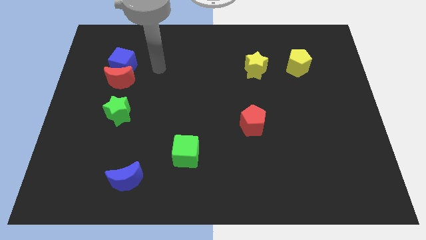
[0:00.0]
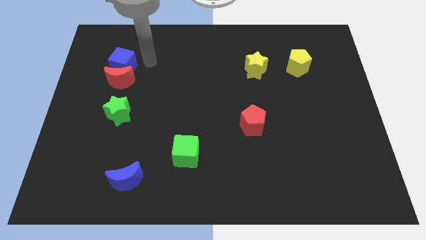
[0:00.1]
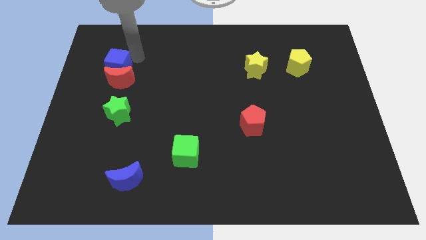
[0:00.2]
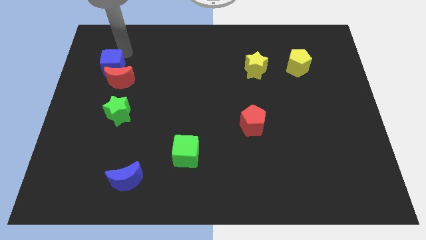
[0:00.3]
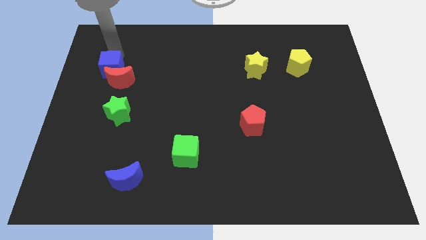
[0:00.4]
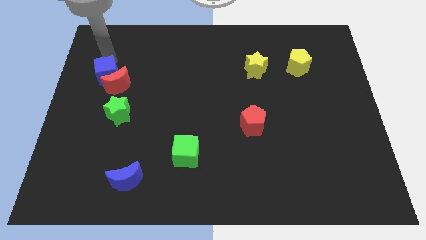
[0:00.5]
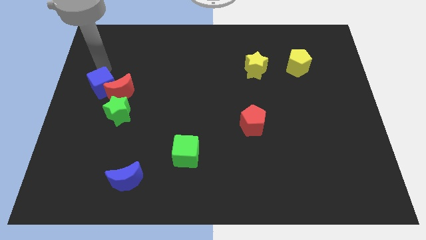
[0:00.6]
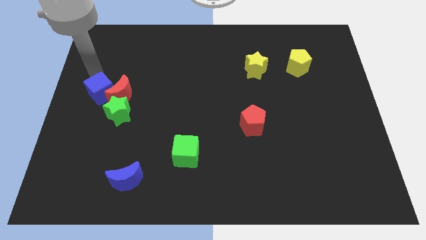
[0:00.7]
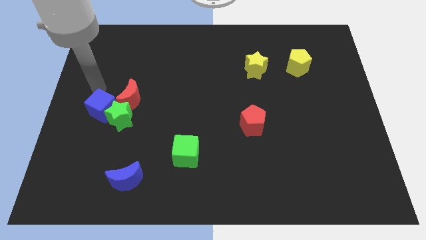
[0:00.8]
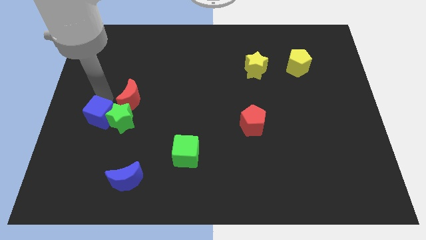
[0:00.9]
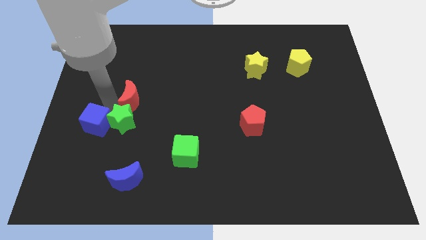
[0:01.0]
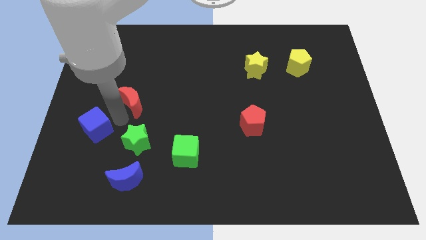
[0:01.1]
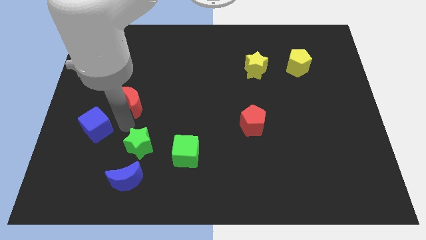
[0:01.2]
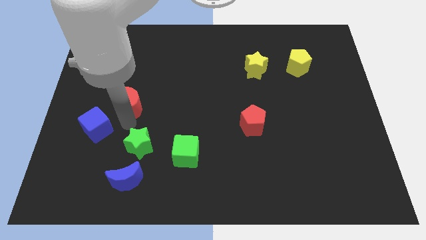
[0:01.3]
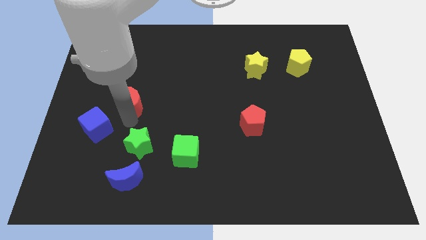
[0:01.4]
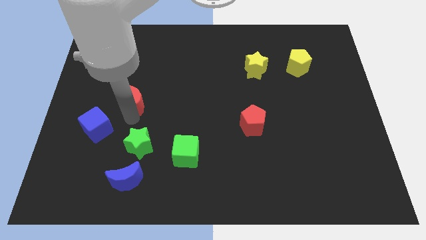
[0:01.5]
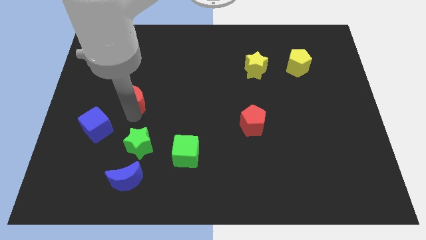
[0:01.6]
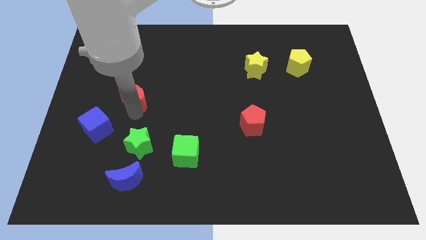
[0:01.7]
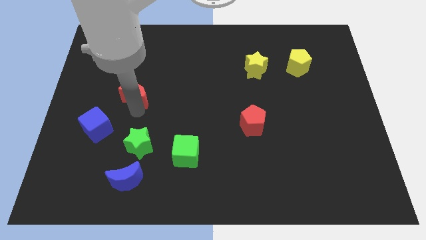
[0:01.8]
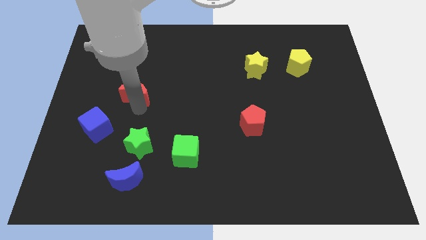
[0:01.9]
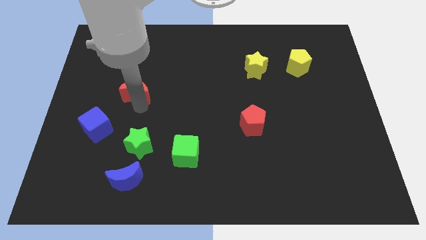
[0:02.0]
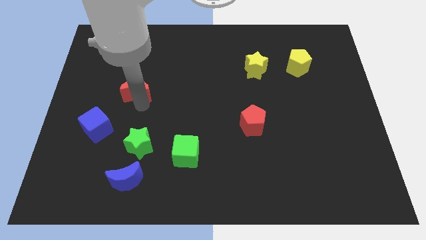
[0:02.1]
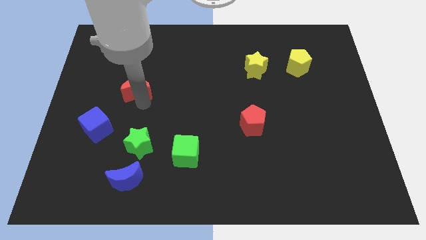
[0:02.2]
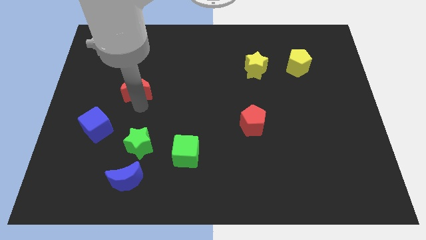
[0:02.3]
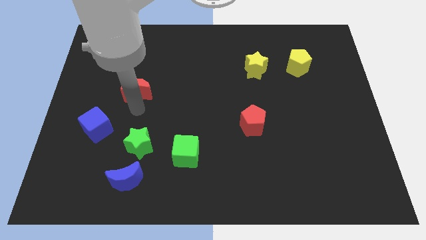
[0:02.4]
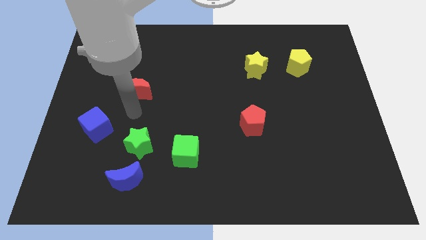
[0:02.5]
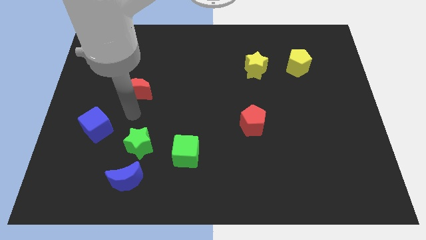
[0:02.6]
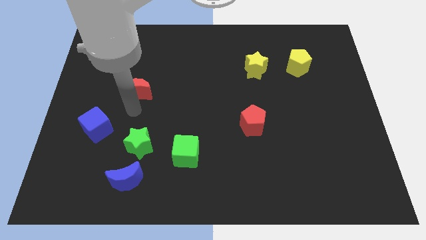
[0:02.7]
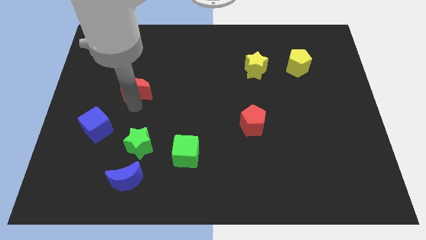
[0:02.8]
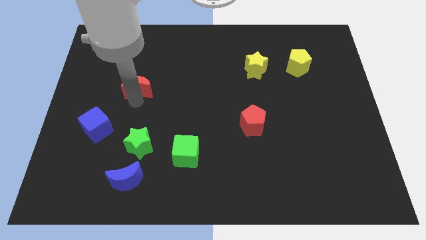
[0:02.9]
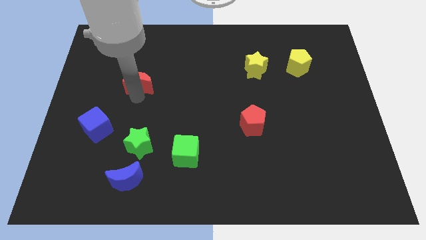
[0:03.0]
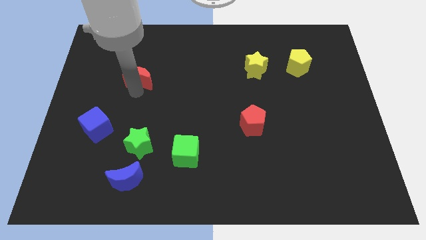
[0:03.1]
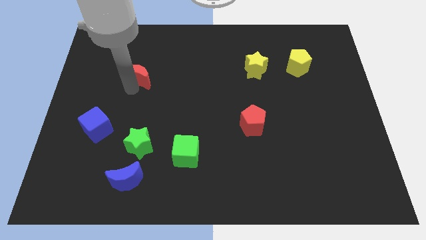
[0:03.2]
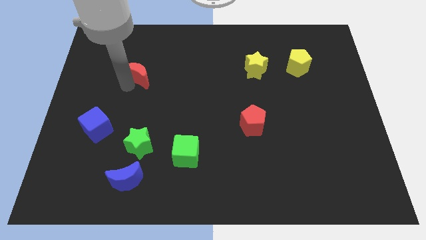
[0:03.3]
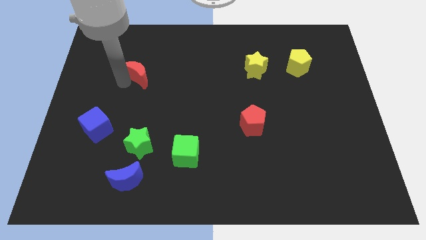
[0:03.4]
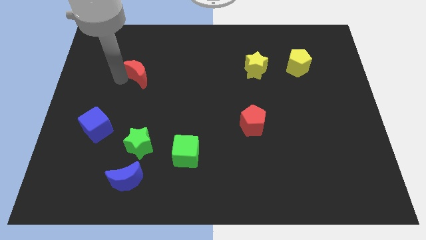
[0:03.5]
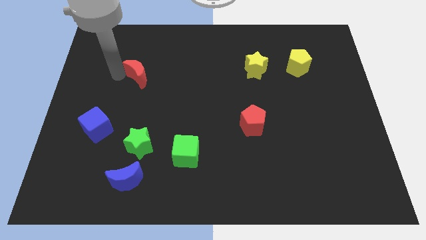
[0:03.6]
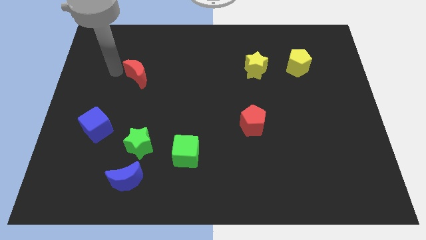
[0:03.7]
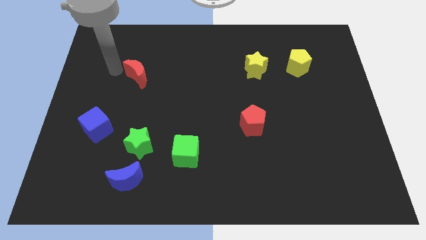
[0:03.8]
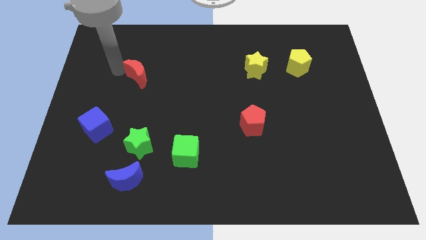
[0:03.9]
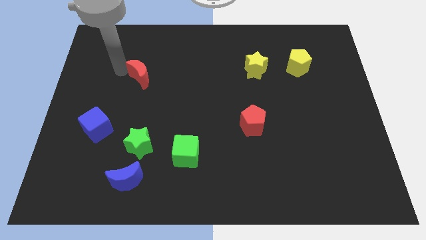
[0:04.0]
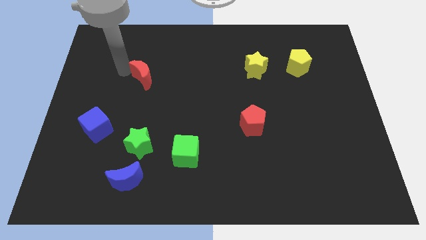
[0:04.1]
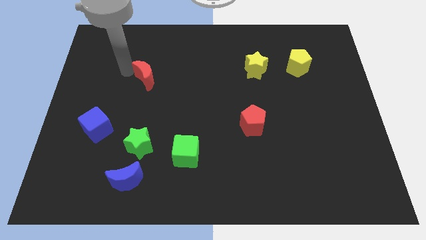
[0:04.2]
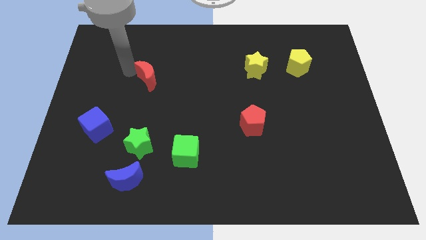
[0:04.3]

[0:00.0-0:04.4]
push the red moon to the right somewhat

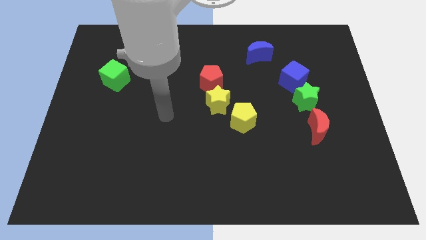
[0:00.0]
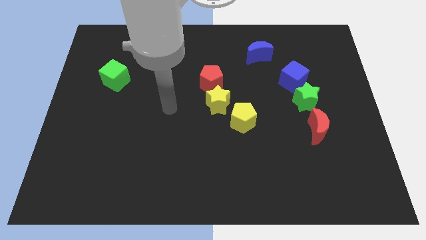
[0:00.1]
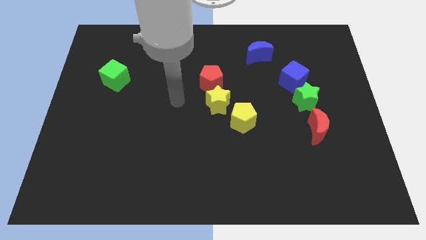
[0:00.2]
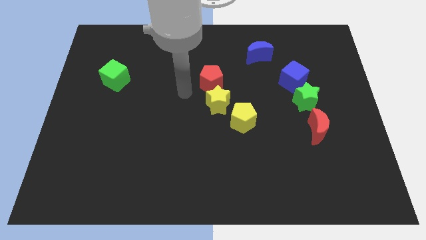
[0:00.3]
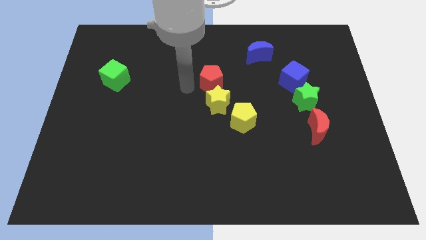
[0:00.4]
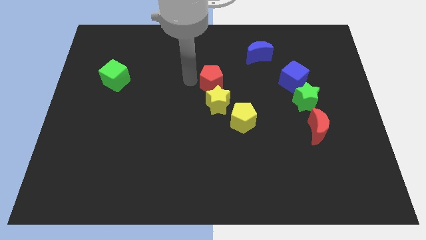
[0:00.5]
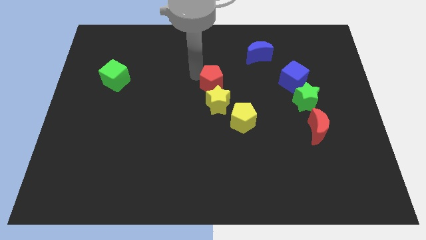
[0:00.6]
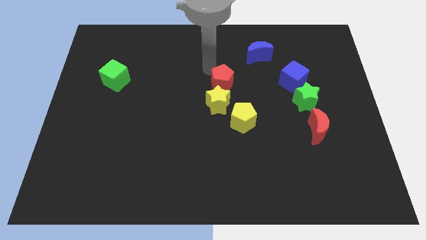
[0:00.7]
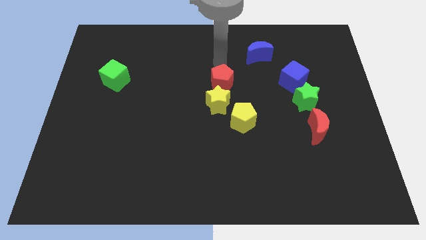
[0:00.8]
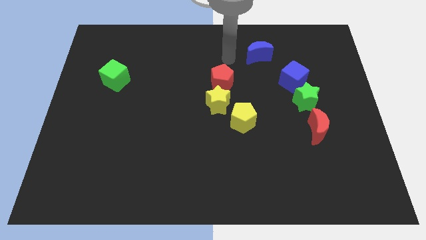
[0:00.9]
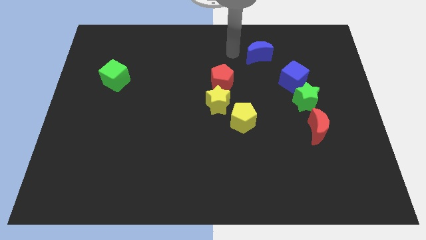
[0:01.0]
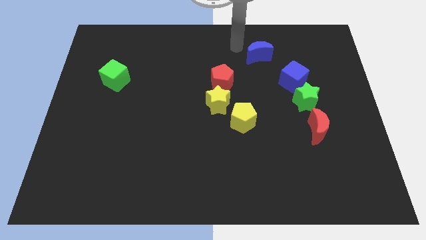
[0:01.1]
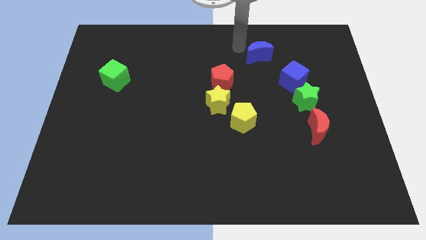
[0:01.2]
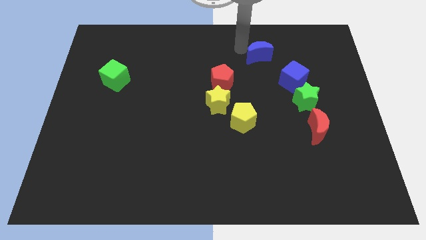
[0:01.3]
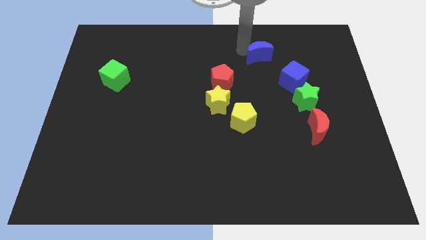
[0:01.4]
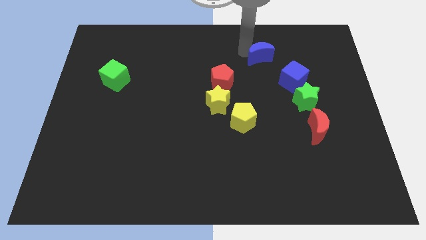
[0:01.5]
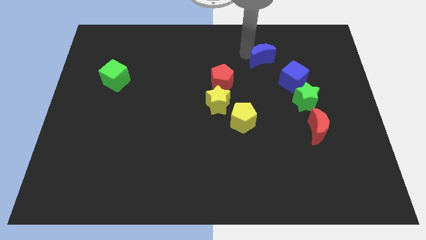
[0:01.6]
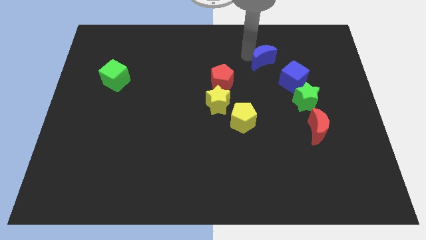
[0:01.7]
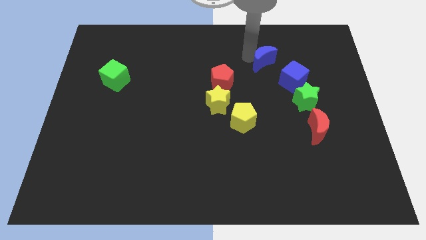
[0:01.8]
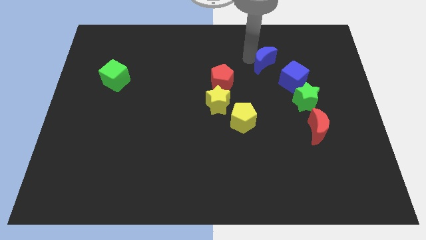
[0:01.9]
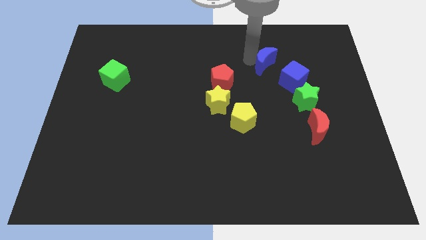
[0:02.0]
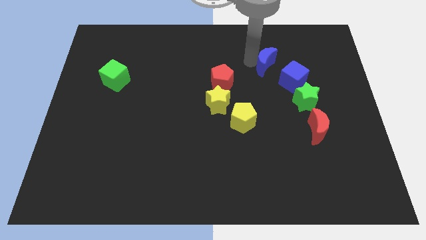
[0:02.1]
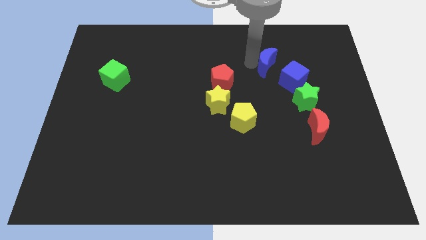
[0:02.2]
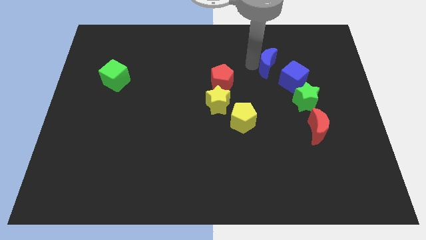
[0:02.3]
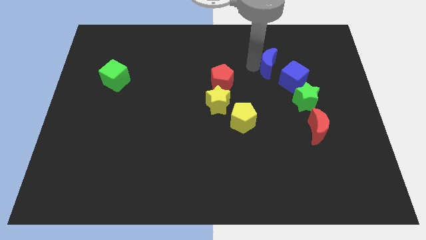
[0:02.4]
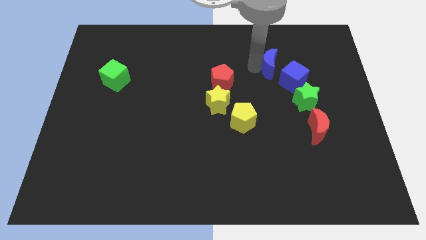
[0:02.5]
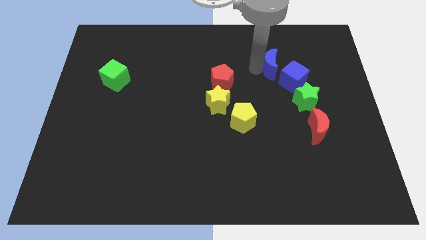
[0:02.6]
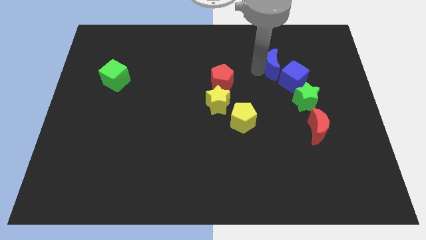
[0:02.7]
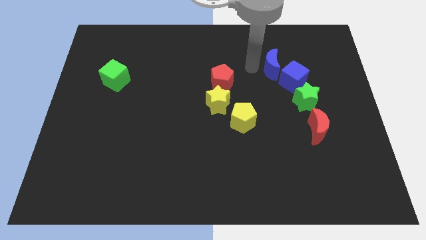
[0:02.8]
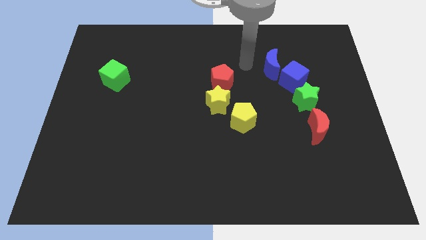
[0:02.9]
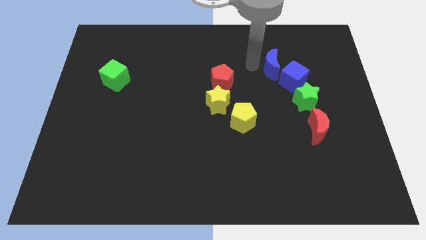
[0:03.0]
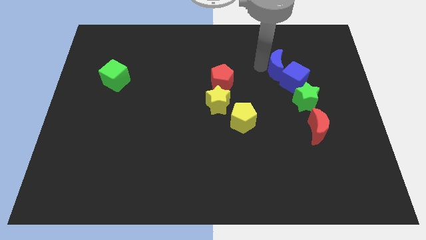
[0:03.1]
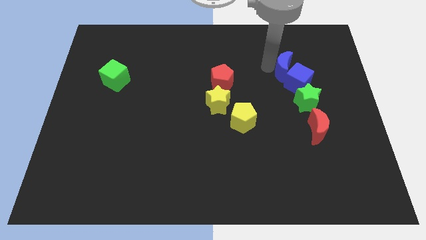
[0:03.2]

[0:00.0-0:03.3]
slightly push the blue moon down and right

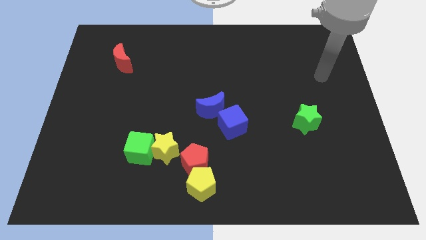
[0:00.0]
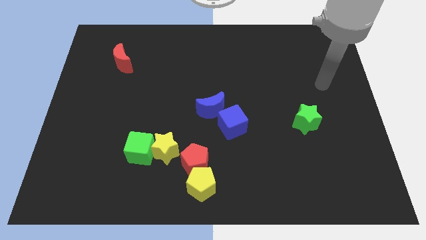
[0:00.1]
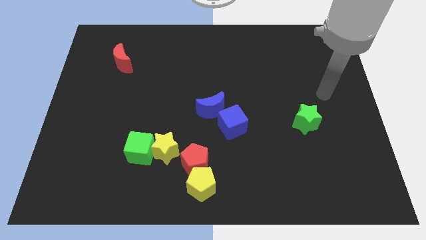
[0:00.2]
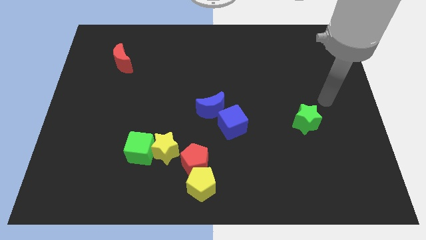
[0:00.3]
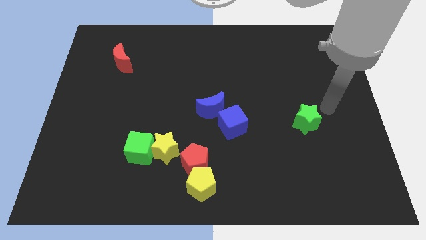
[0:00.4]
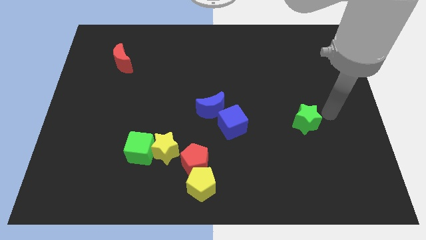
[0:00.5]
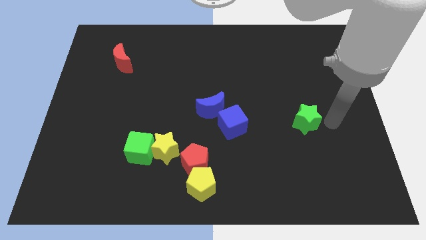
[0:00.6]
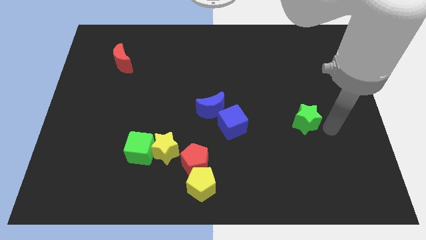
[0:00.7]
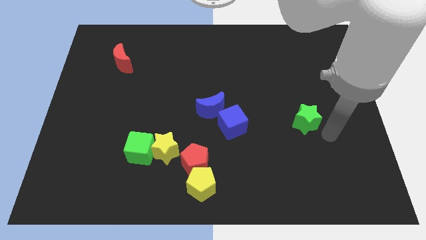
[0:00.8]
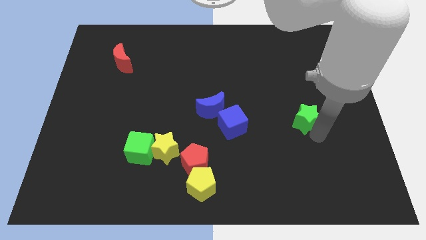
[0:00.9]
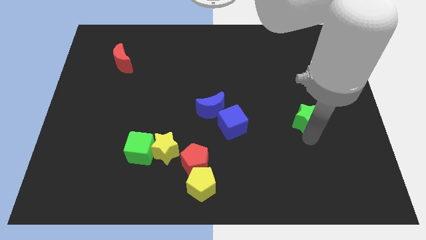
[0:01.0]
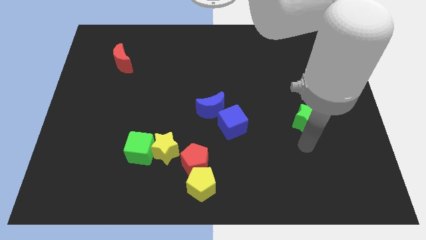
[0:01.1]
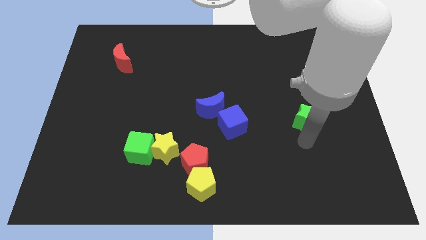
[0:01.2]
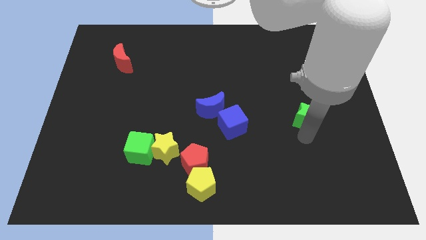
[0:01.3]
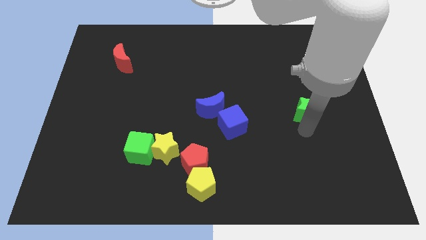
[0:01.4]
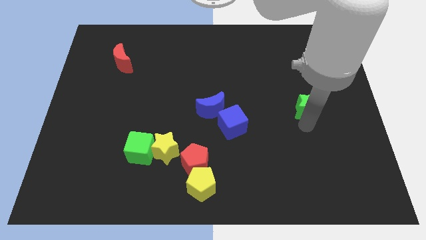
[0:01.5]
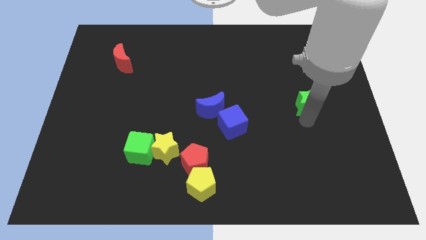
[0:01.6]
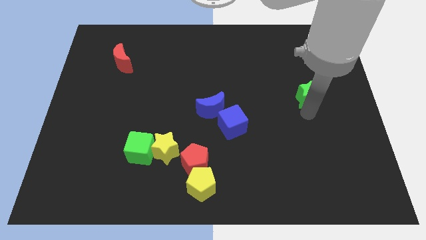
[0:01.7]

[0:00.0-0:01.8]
push the green star upwards a little
